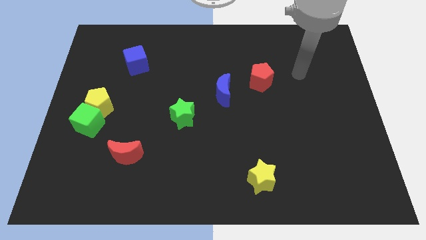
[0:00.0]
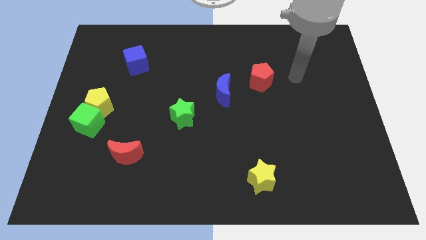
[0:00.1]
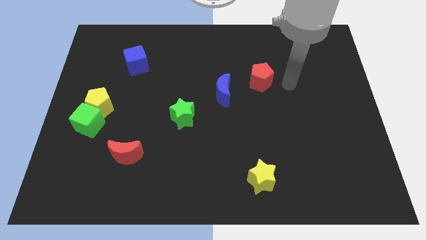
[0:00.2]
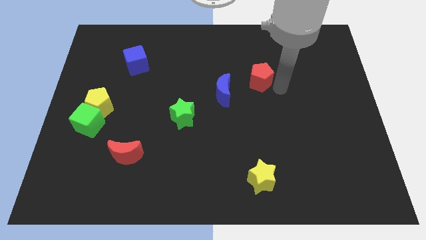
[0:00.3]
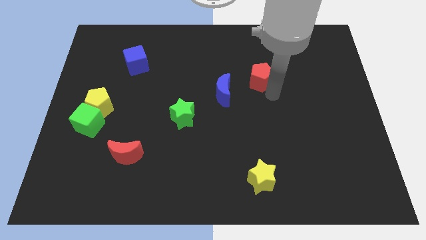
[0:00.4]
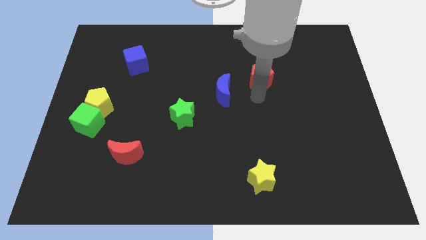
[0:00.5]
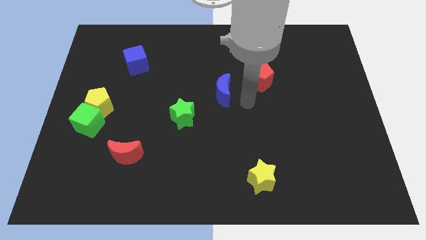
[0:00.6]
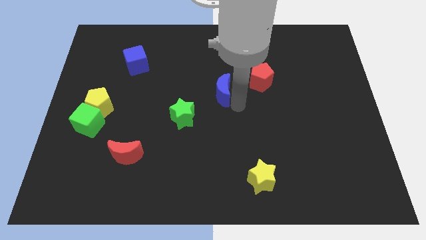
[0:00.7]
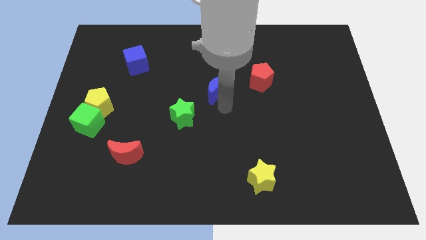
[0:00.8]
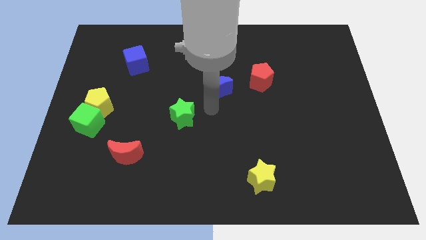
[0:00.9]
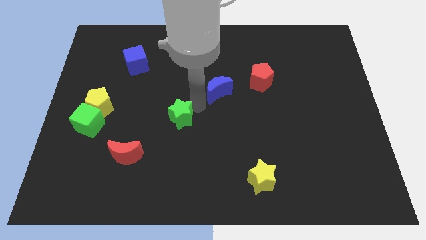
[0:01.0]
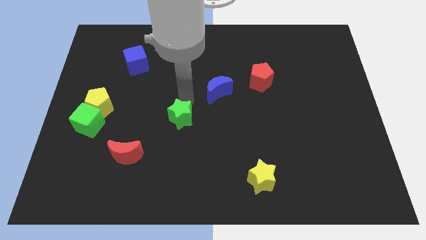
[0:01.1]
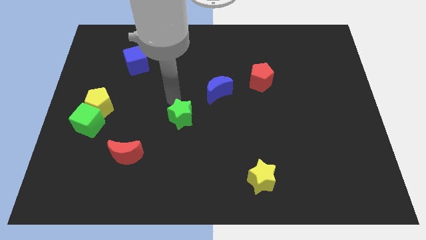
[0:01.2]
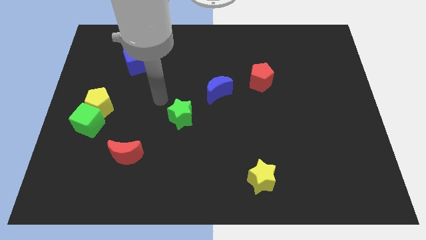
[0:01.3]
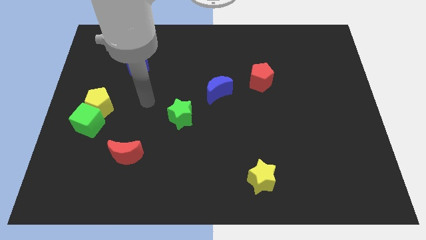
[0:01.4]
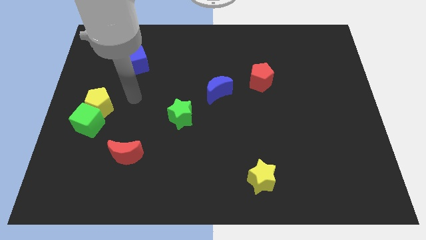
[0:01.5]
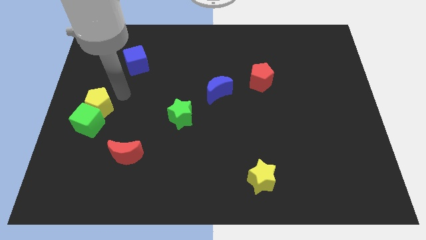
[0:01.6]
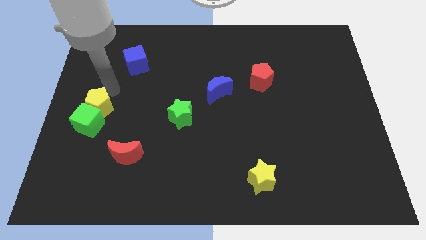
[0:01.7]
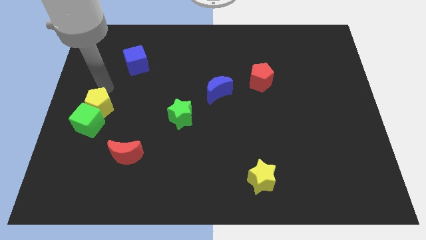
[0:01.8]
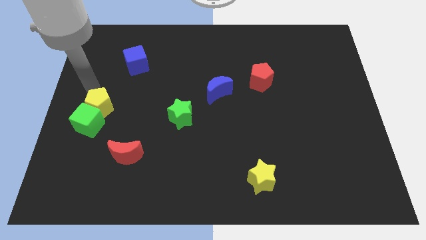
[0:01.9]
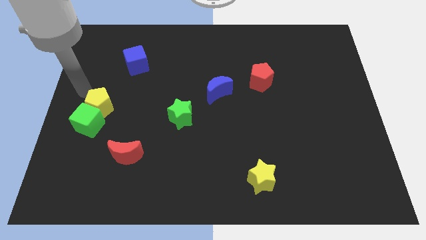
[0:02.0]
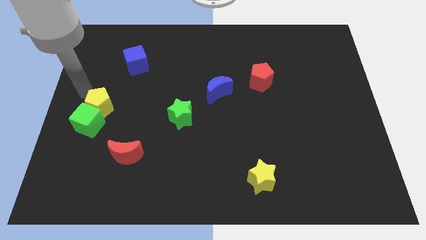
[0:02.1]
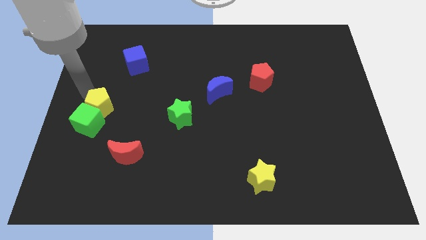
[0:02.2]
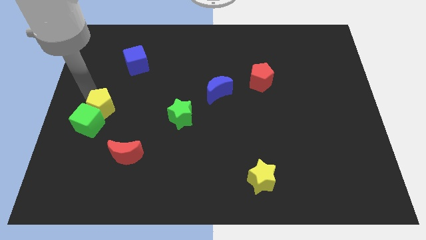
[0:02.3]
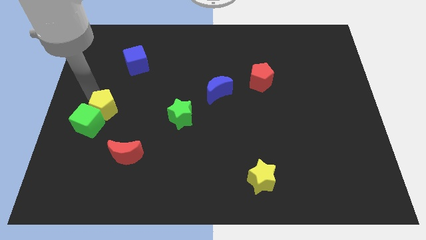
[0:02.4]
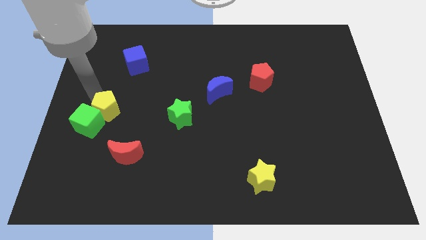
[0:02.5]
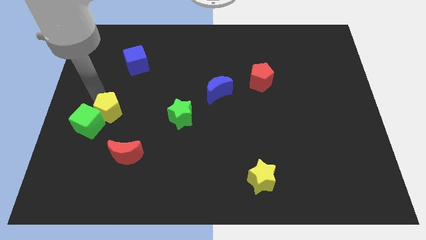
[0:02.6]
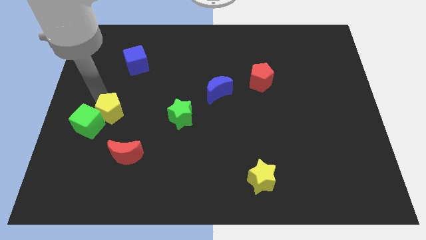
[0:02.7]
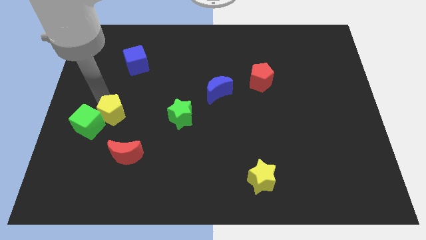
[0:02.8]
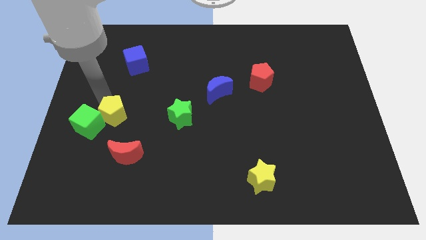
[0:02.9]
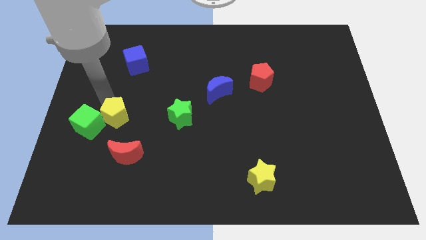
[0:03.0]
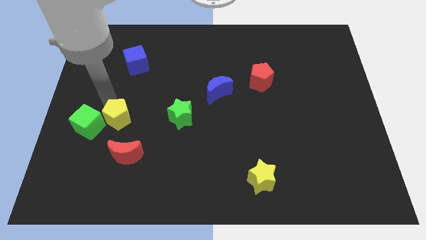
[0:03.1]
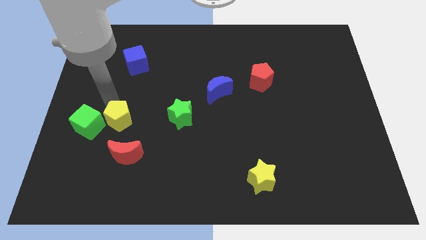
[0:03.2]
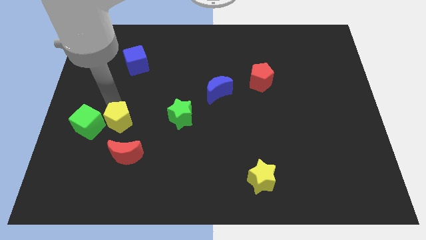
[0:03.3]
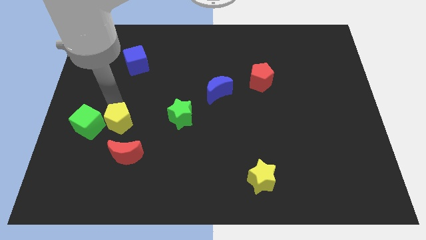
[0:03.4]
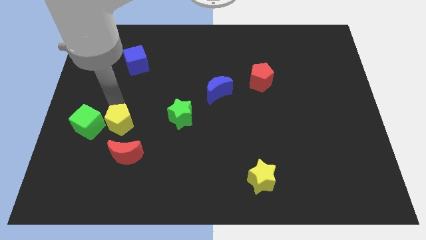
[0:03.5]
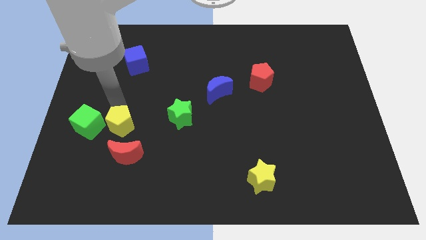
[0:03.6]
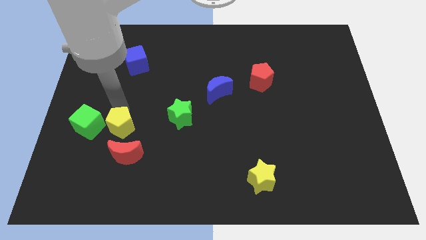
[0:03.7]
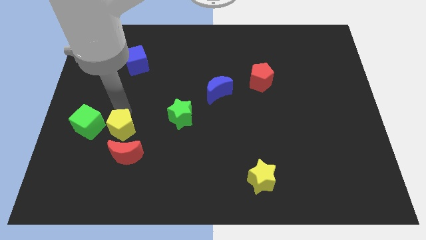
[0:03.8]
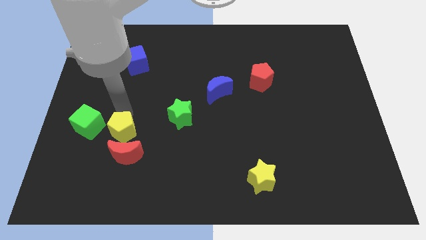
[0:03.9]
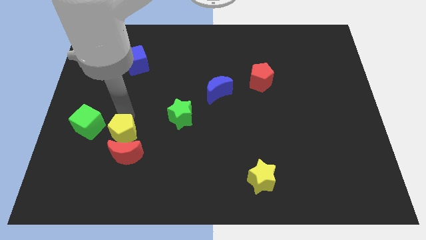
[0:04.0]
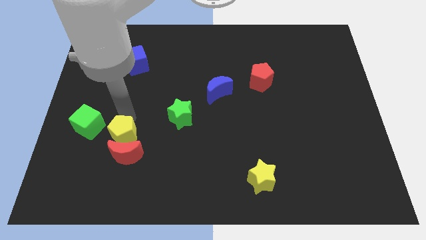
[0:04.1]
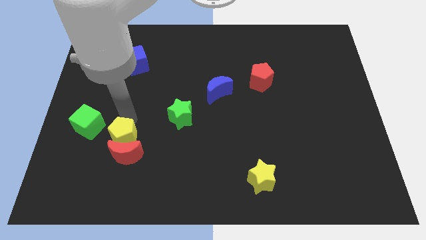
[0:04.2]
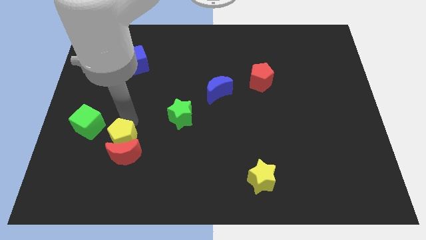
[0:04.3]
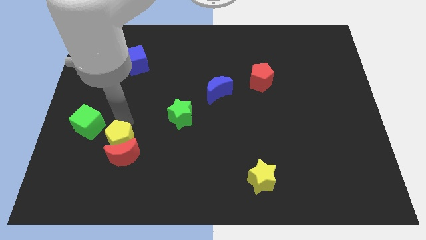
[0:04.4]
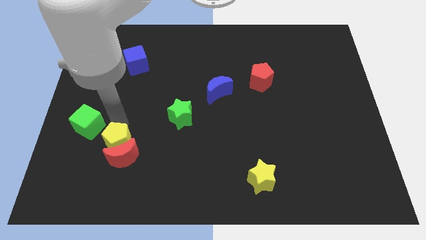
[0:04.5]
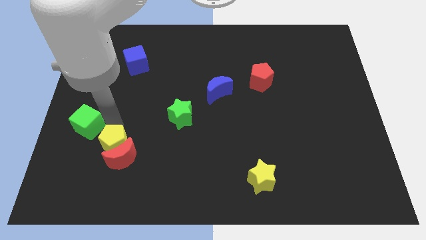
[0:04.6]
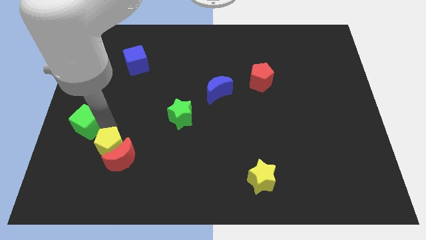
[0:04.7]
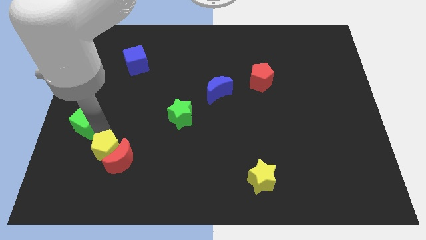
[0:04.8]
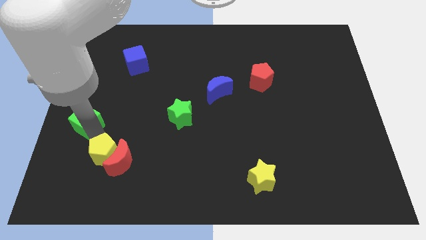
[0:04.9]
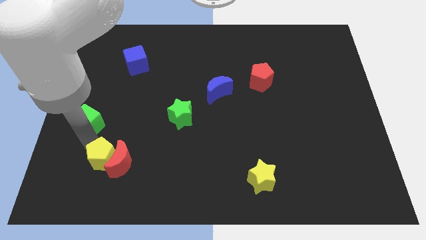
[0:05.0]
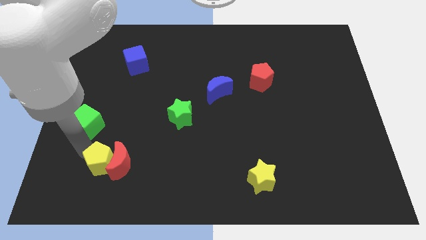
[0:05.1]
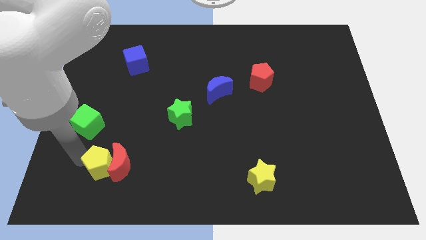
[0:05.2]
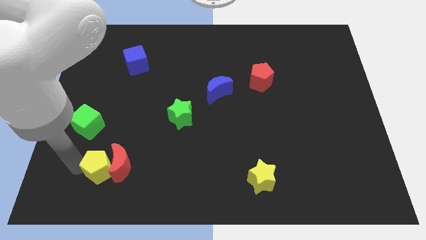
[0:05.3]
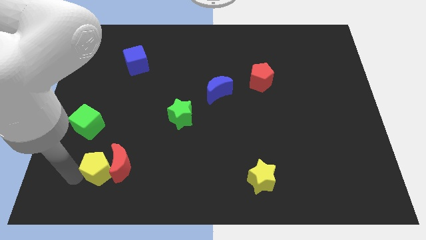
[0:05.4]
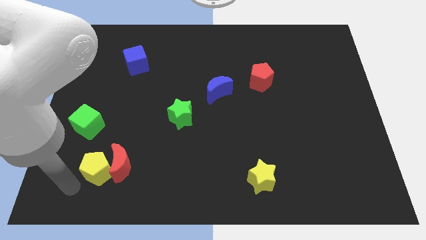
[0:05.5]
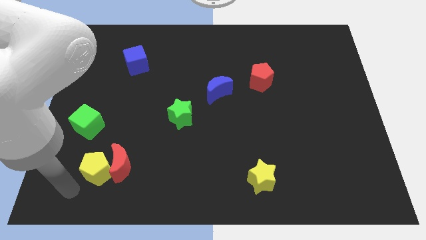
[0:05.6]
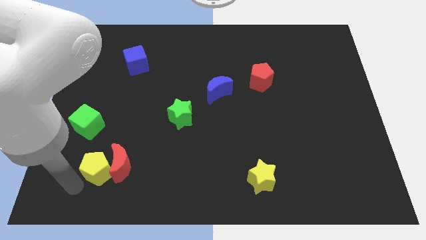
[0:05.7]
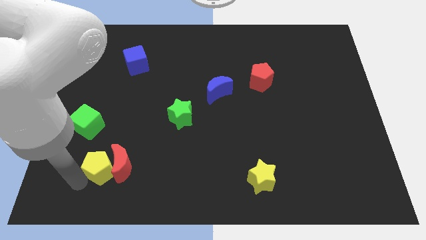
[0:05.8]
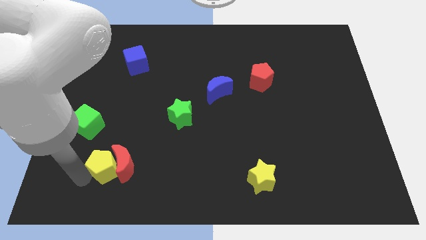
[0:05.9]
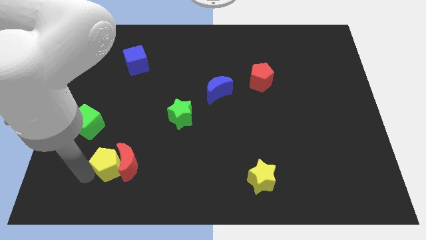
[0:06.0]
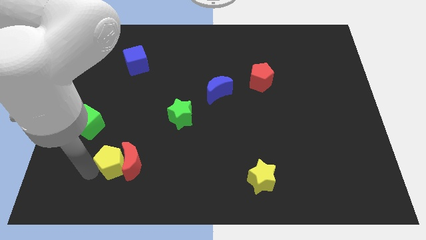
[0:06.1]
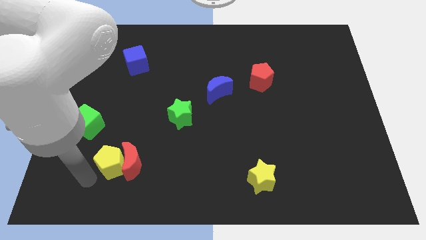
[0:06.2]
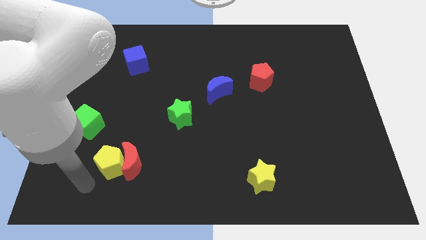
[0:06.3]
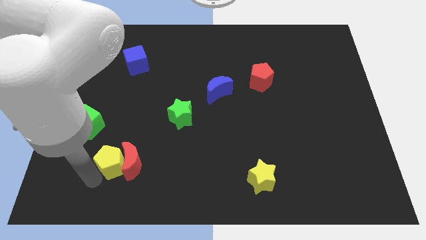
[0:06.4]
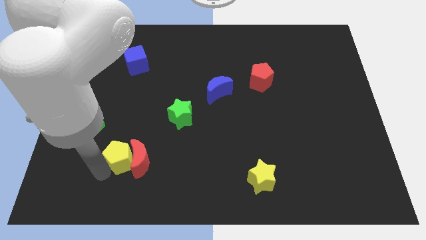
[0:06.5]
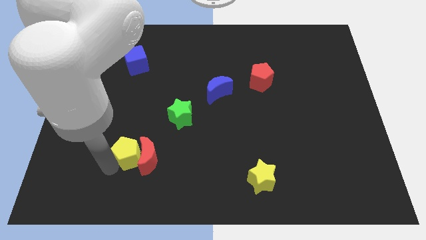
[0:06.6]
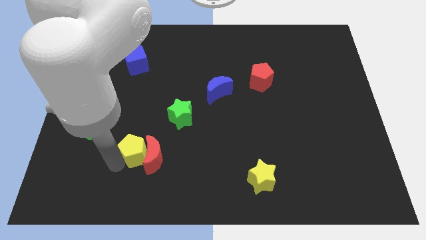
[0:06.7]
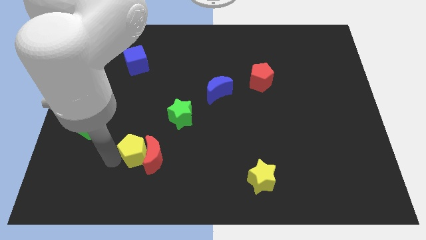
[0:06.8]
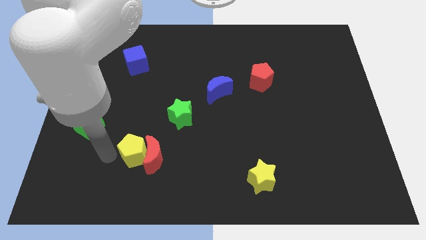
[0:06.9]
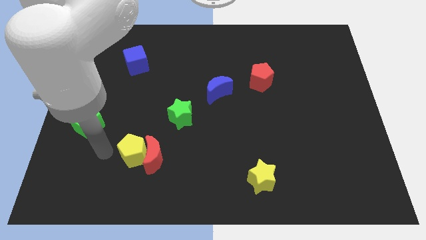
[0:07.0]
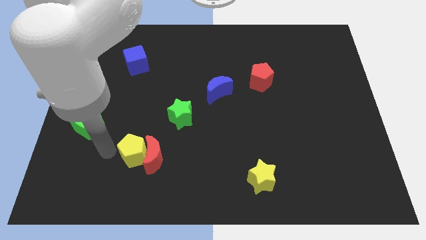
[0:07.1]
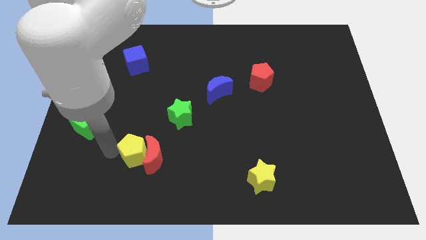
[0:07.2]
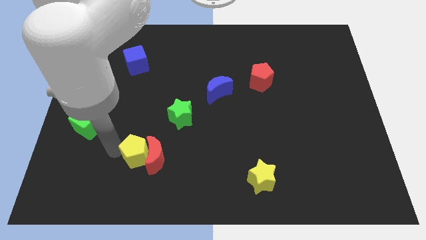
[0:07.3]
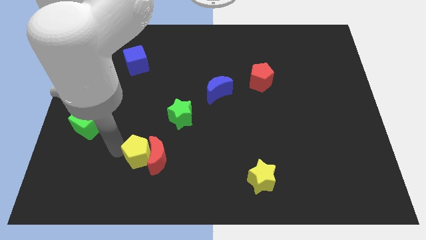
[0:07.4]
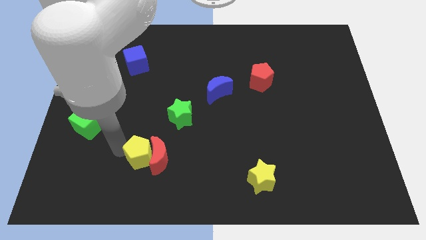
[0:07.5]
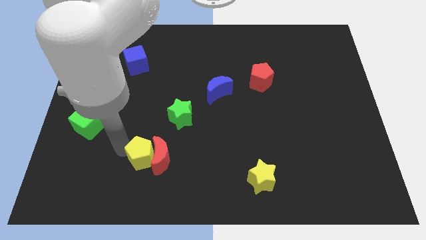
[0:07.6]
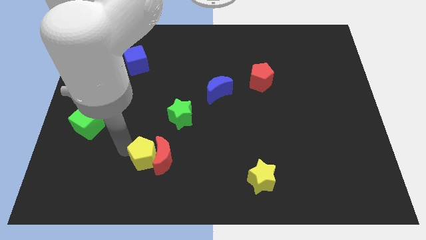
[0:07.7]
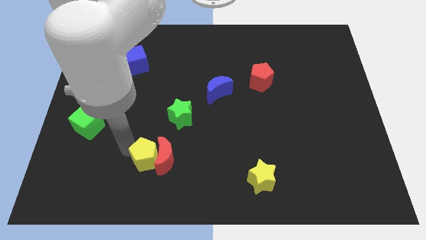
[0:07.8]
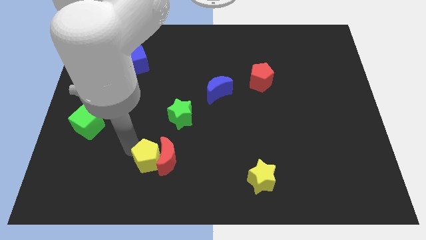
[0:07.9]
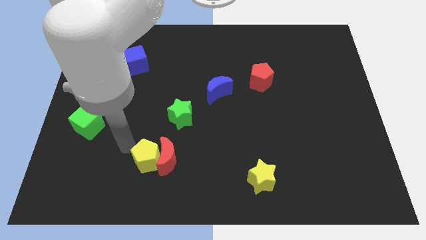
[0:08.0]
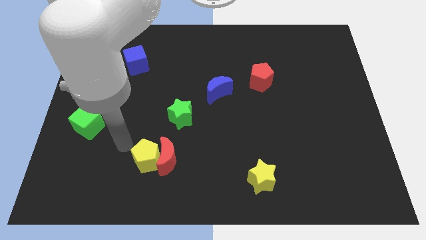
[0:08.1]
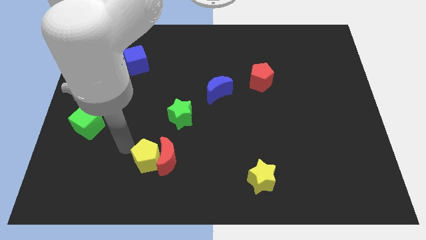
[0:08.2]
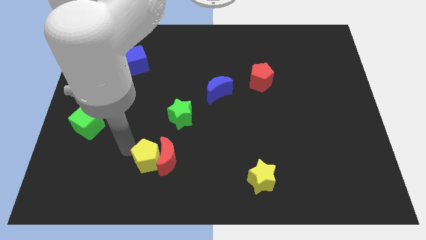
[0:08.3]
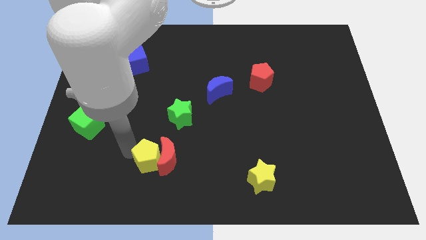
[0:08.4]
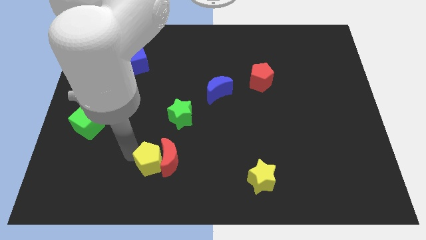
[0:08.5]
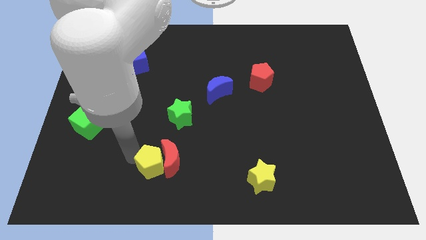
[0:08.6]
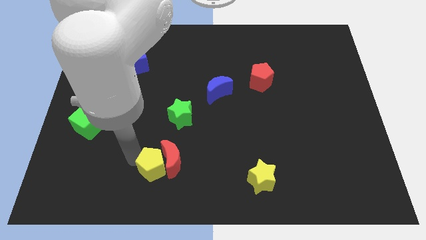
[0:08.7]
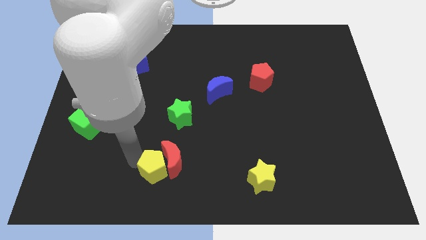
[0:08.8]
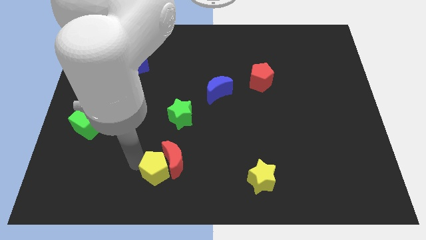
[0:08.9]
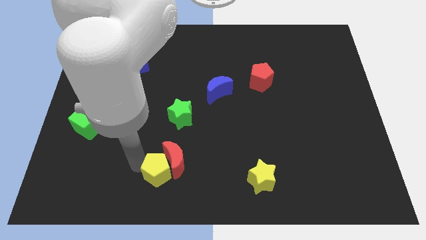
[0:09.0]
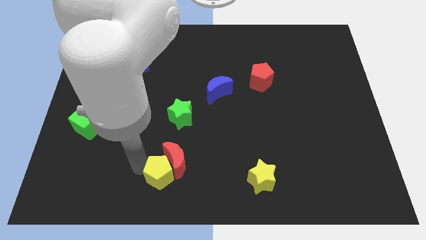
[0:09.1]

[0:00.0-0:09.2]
put the yellow pentagon to the bottom
